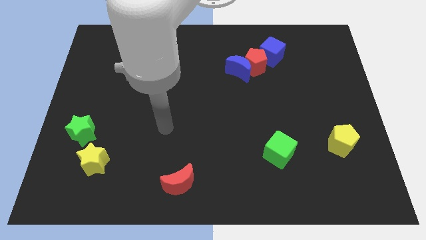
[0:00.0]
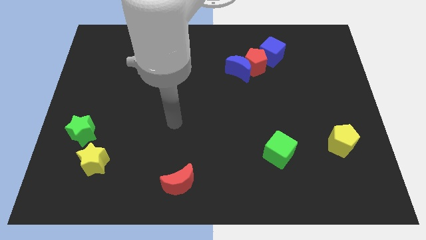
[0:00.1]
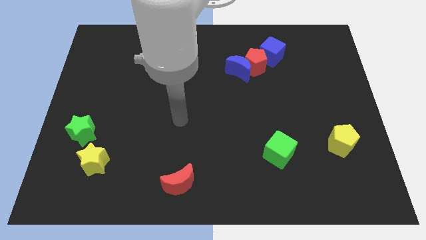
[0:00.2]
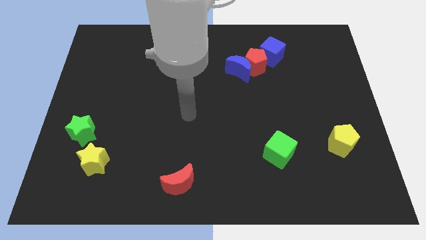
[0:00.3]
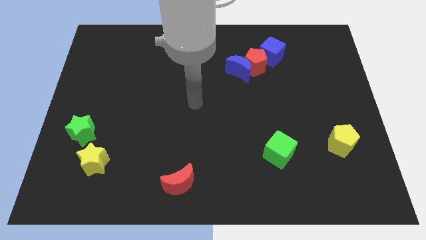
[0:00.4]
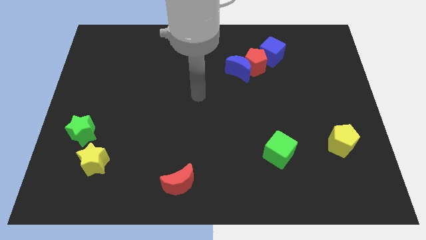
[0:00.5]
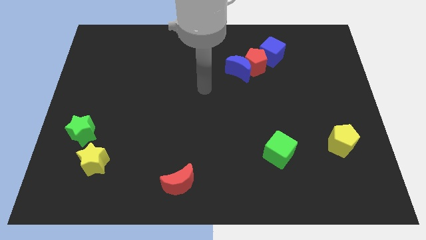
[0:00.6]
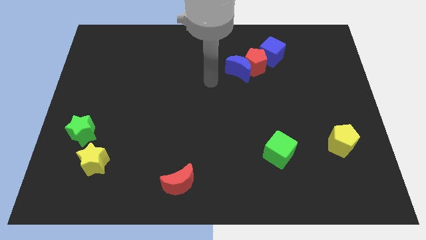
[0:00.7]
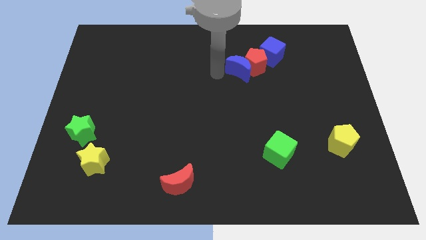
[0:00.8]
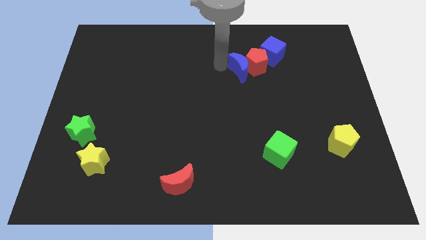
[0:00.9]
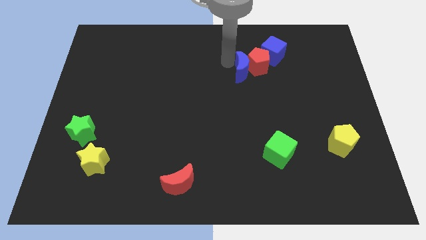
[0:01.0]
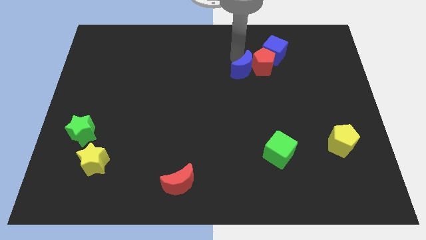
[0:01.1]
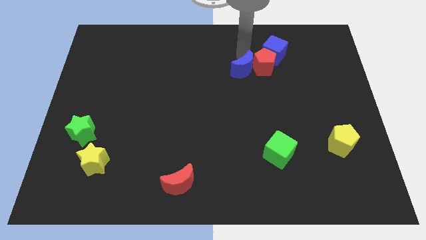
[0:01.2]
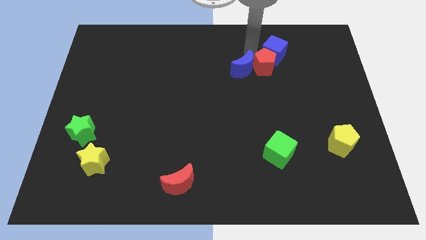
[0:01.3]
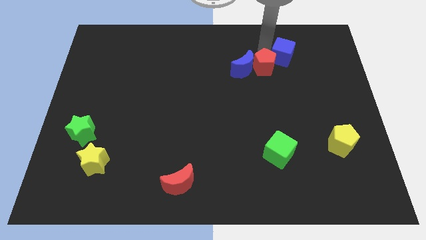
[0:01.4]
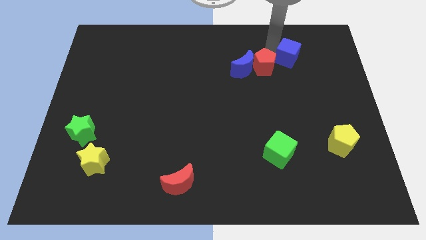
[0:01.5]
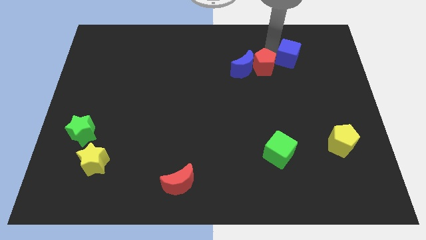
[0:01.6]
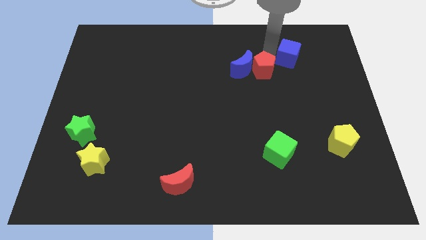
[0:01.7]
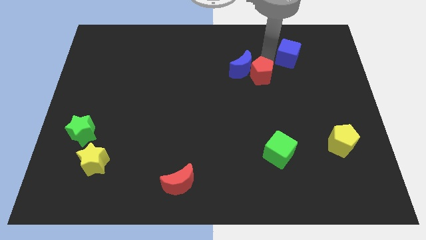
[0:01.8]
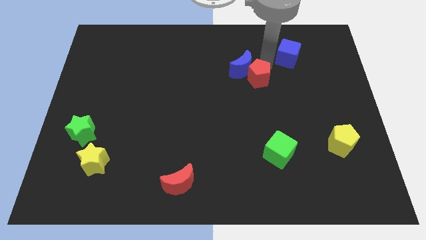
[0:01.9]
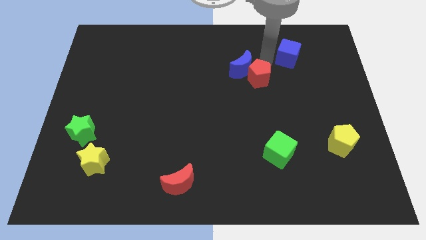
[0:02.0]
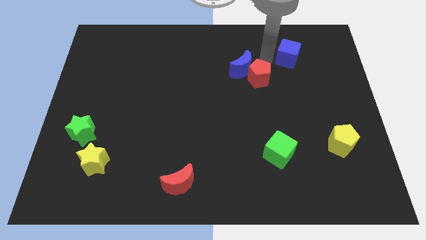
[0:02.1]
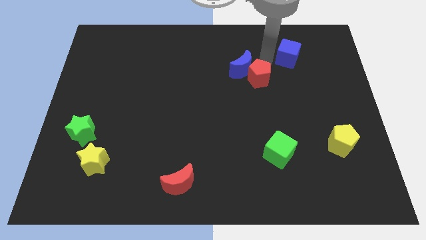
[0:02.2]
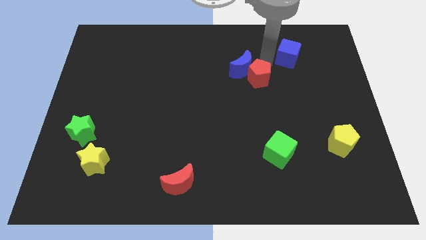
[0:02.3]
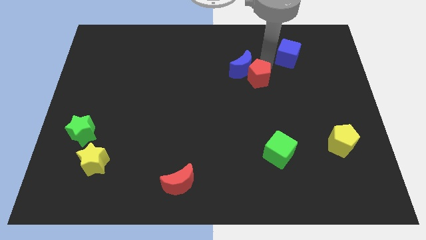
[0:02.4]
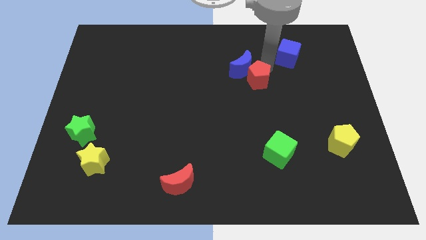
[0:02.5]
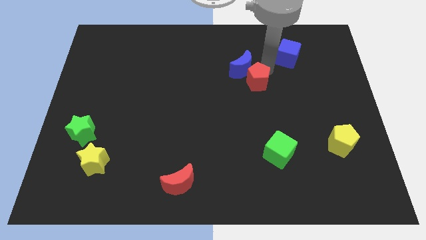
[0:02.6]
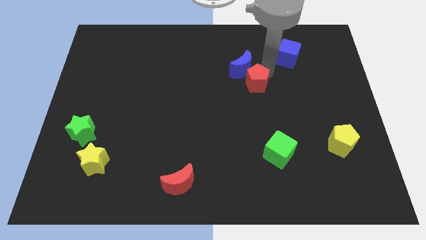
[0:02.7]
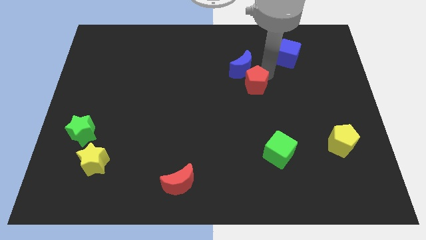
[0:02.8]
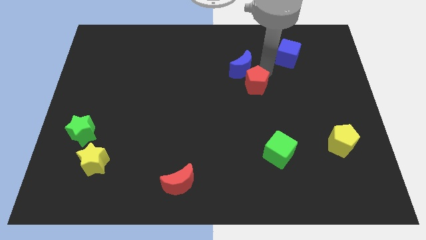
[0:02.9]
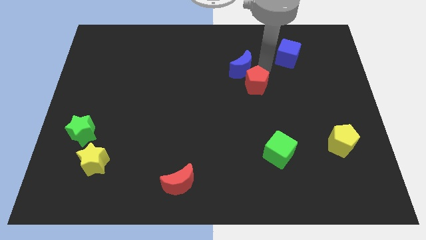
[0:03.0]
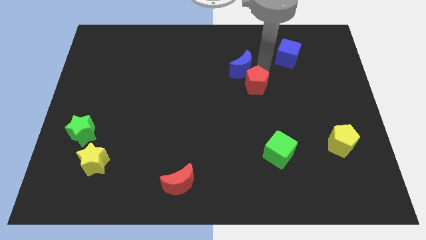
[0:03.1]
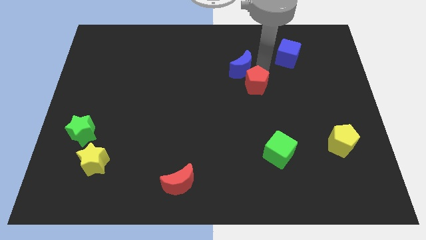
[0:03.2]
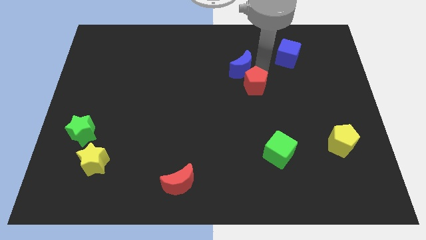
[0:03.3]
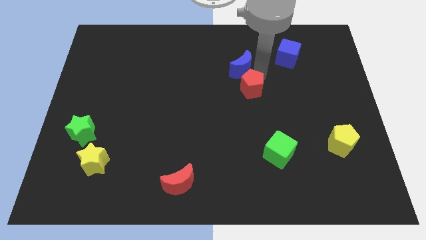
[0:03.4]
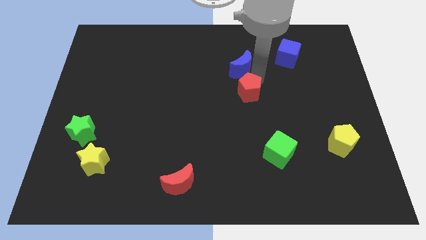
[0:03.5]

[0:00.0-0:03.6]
move the red pentagon away from the blue moon and blue cube

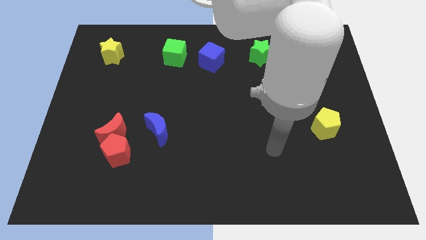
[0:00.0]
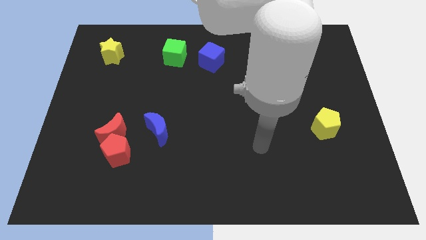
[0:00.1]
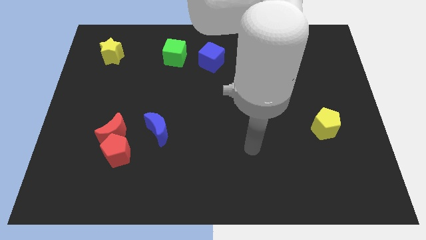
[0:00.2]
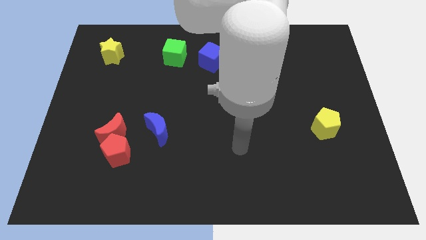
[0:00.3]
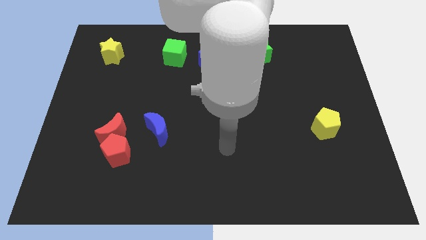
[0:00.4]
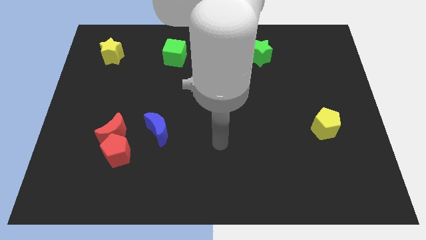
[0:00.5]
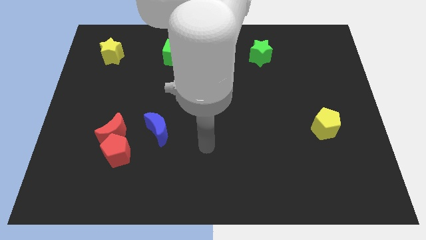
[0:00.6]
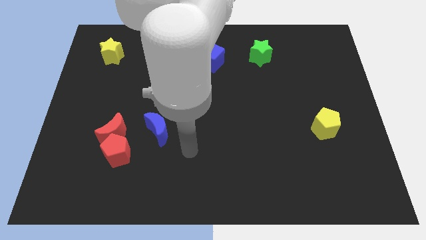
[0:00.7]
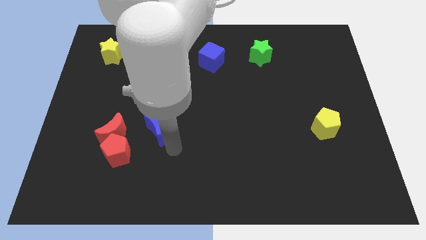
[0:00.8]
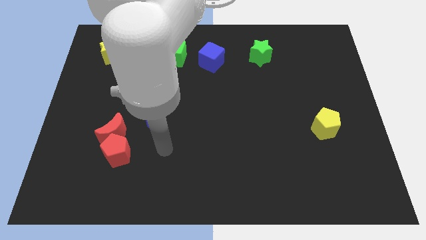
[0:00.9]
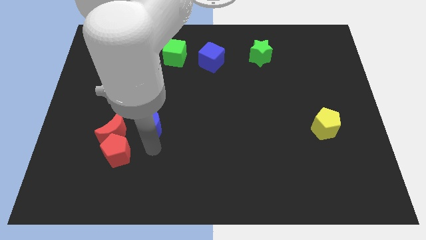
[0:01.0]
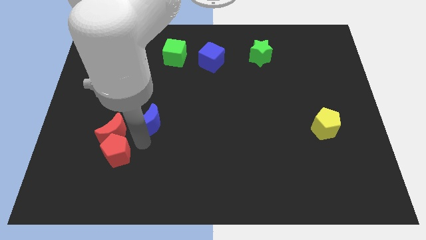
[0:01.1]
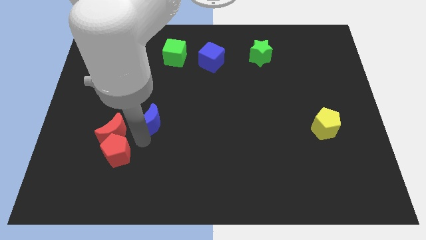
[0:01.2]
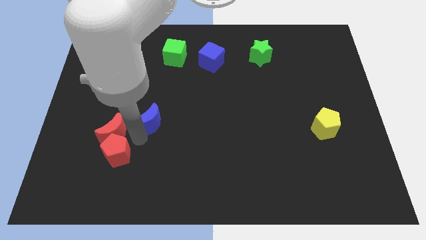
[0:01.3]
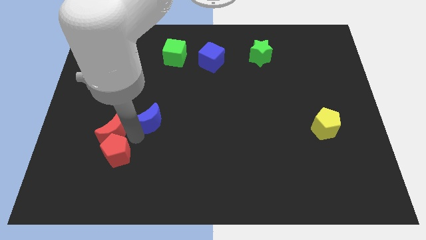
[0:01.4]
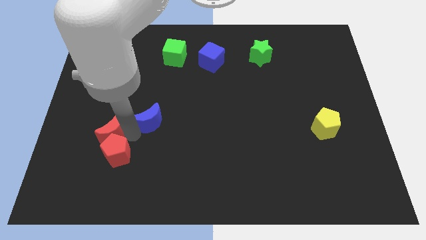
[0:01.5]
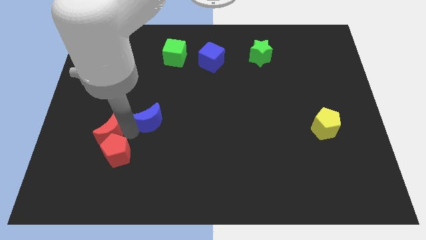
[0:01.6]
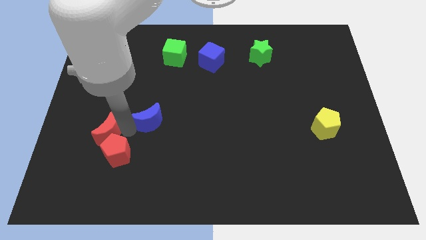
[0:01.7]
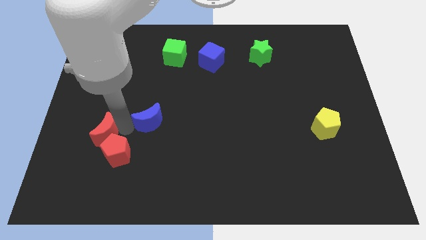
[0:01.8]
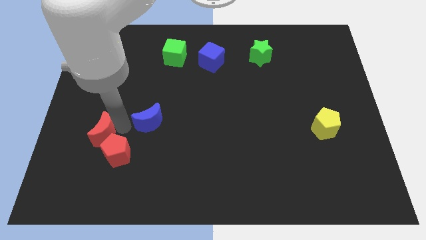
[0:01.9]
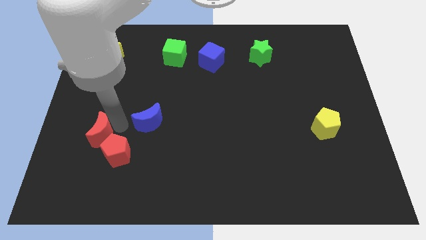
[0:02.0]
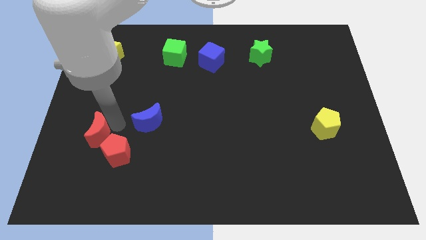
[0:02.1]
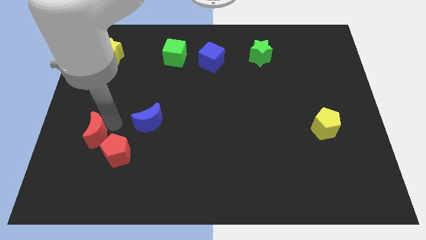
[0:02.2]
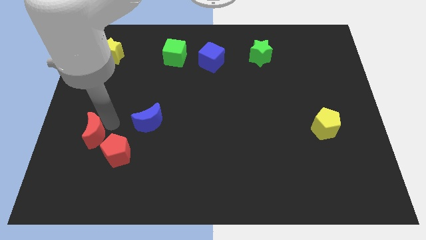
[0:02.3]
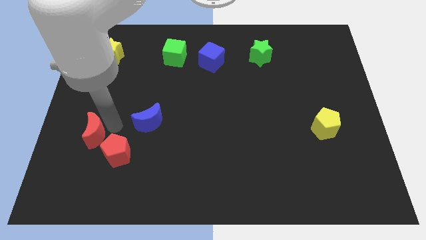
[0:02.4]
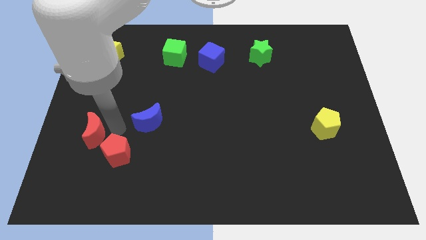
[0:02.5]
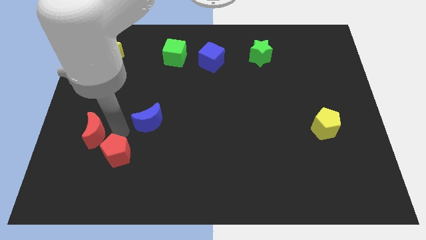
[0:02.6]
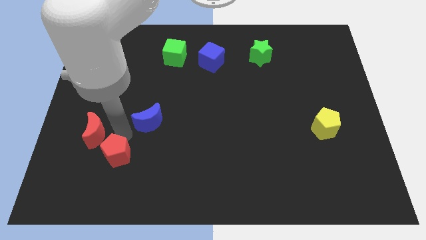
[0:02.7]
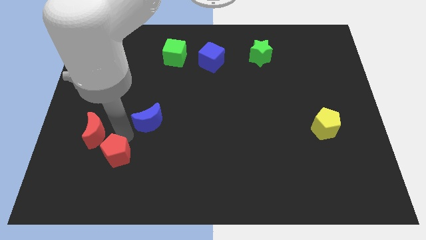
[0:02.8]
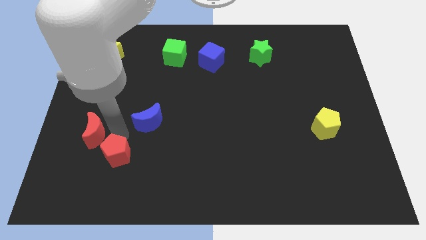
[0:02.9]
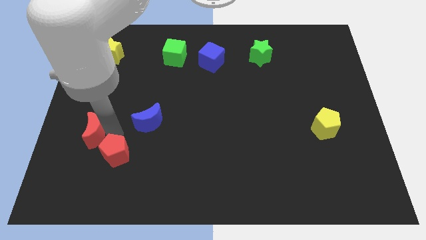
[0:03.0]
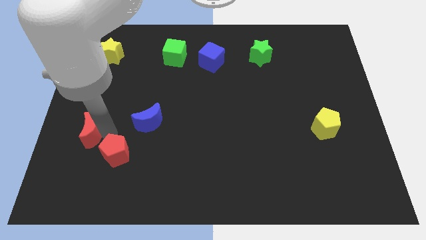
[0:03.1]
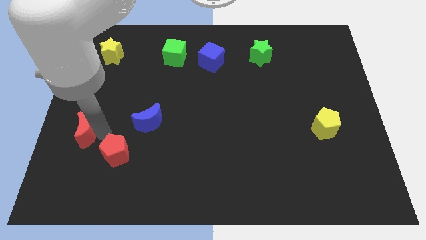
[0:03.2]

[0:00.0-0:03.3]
move the red moon away from the red pentagon and blue moon

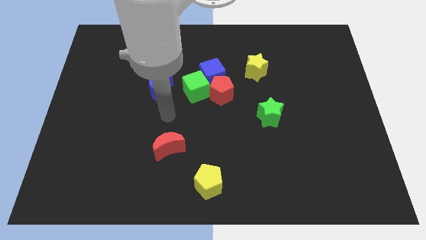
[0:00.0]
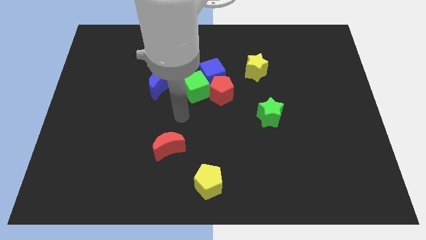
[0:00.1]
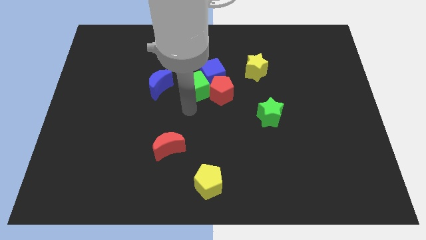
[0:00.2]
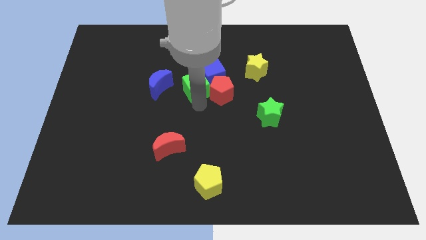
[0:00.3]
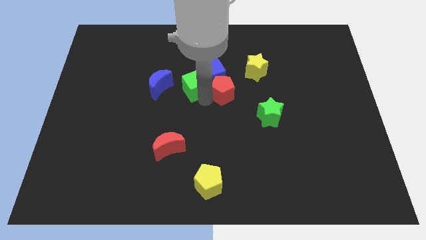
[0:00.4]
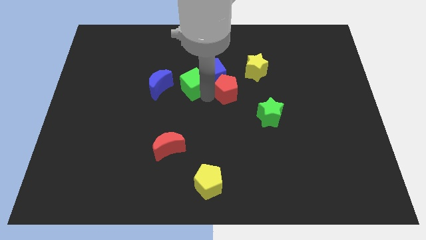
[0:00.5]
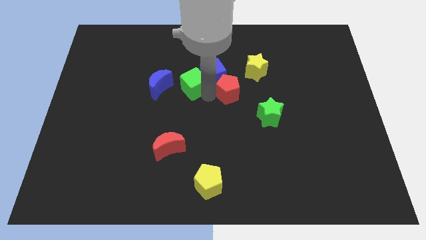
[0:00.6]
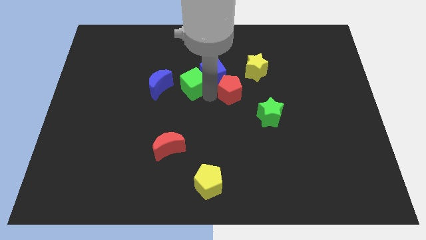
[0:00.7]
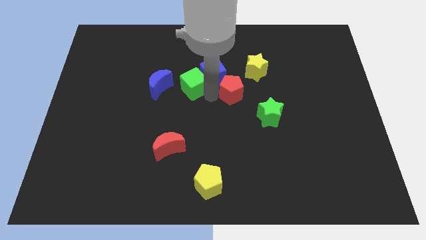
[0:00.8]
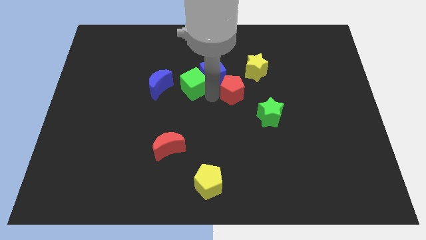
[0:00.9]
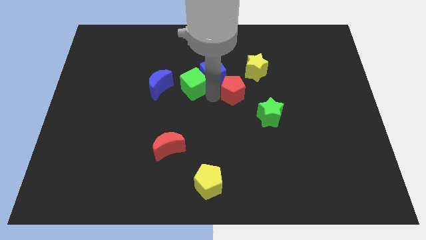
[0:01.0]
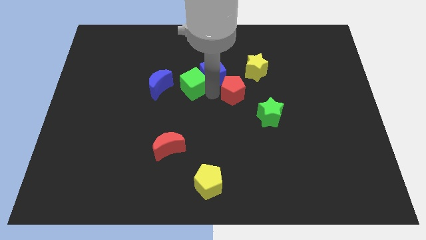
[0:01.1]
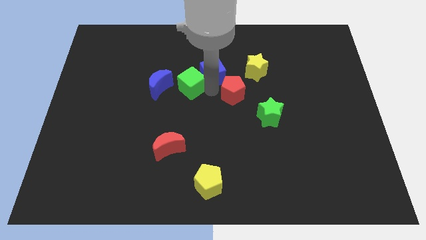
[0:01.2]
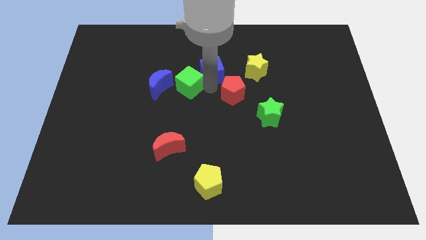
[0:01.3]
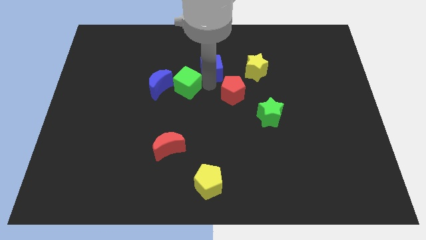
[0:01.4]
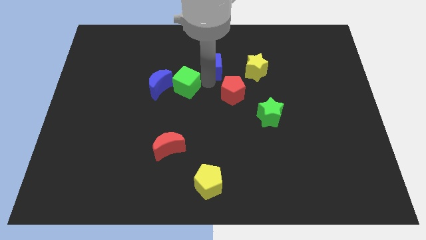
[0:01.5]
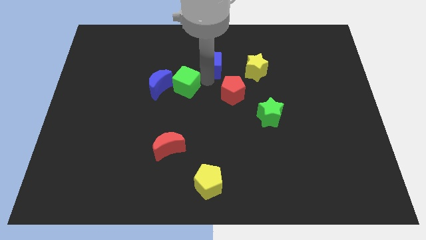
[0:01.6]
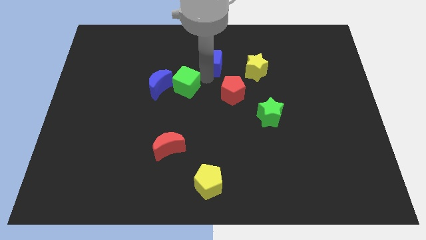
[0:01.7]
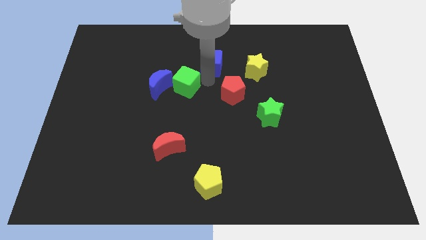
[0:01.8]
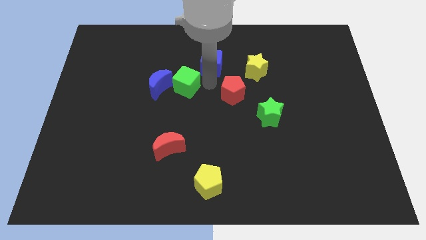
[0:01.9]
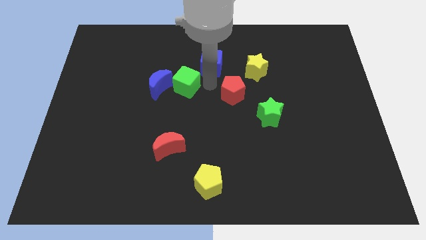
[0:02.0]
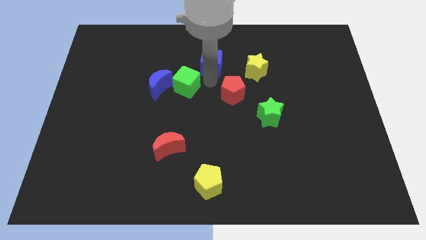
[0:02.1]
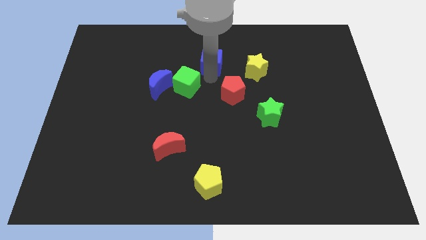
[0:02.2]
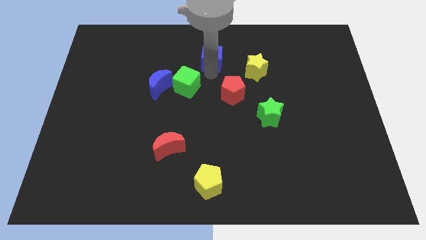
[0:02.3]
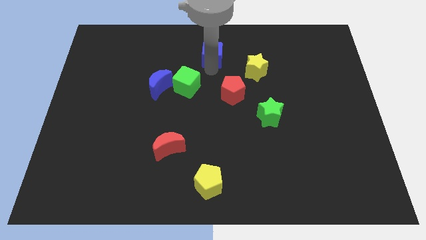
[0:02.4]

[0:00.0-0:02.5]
pull the blue cube apart from the green cube and red pentagon
